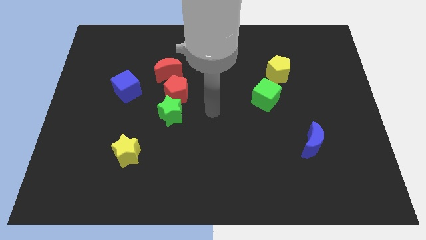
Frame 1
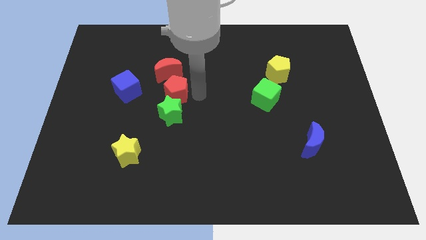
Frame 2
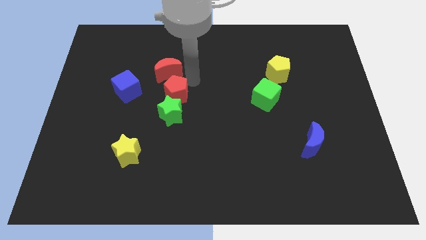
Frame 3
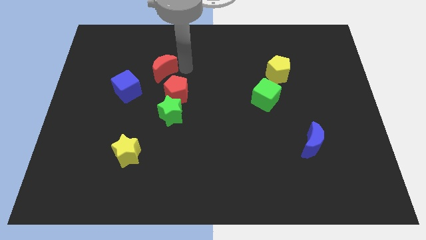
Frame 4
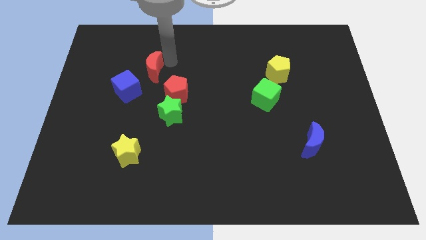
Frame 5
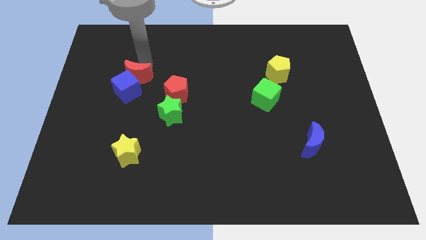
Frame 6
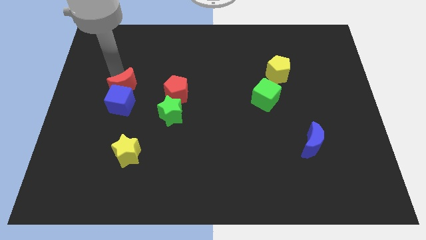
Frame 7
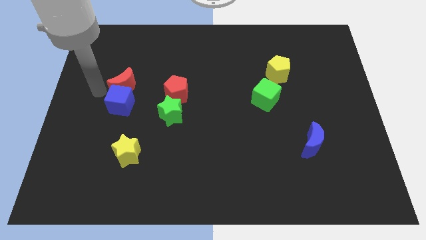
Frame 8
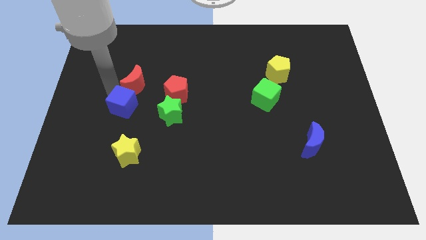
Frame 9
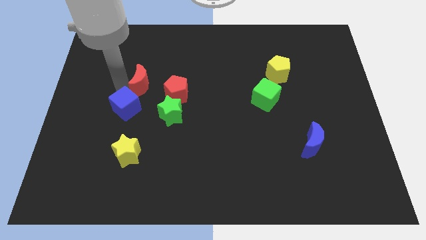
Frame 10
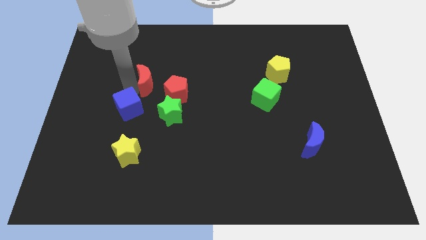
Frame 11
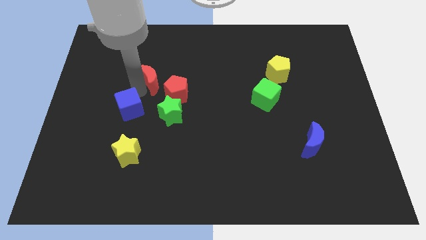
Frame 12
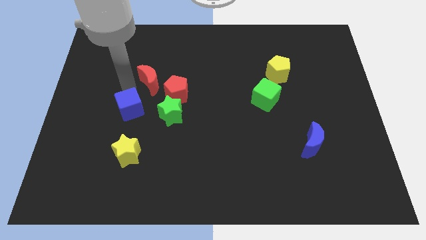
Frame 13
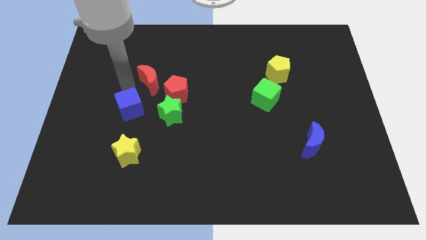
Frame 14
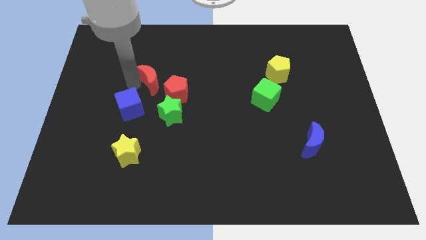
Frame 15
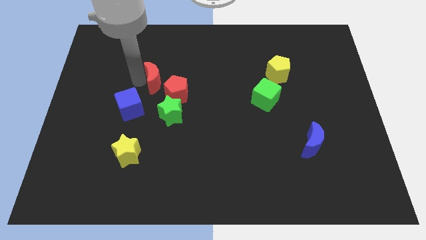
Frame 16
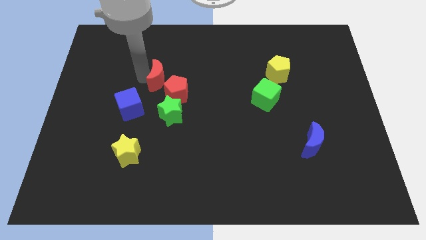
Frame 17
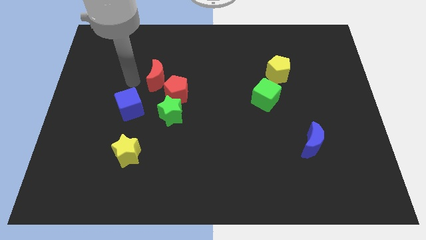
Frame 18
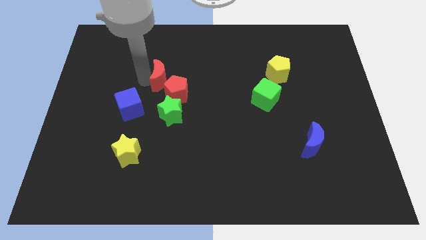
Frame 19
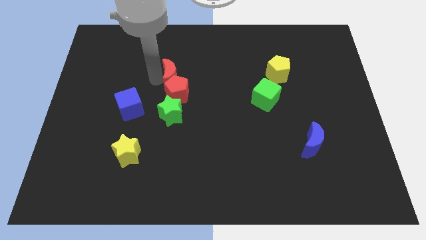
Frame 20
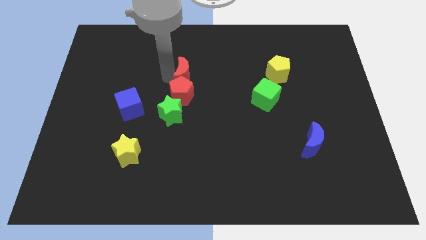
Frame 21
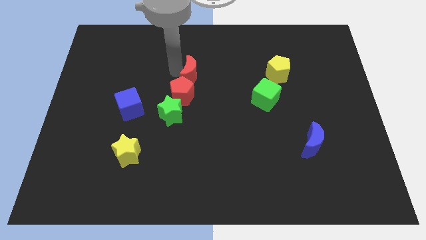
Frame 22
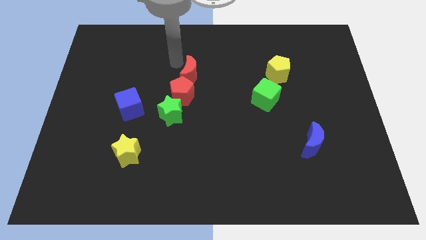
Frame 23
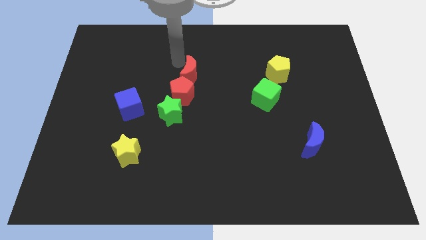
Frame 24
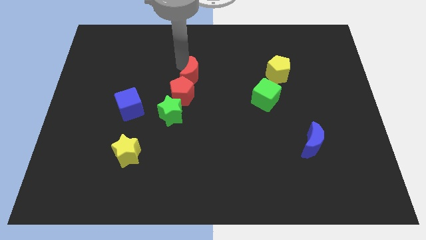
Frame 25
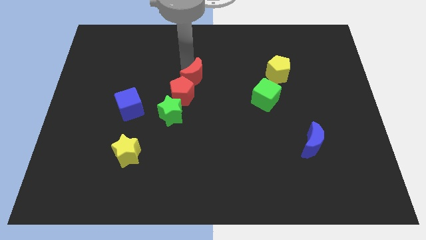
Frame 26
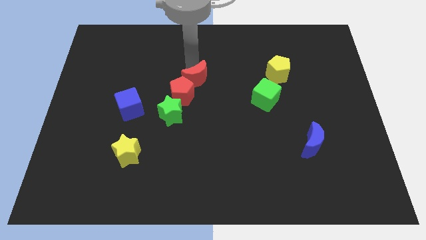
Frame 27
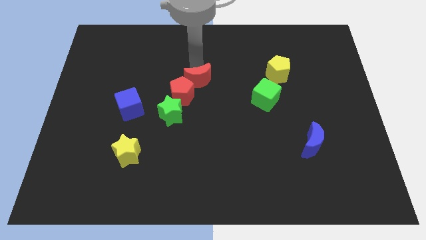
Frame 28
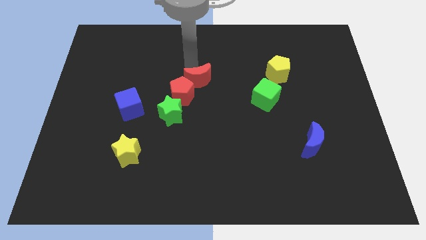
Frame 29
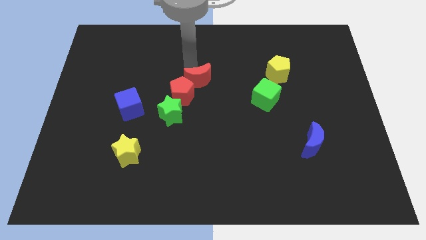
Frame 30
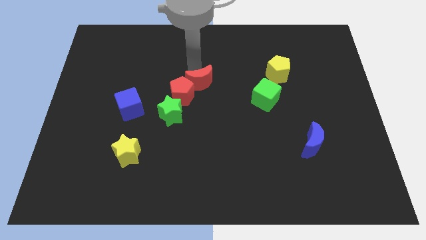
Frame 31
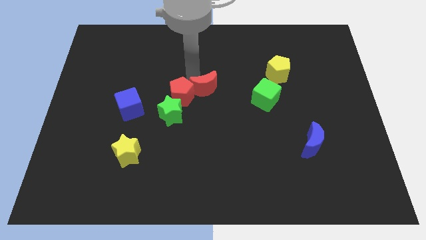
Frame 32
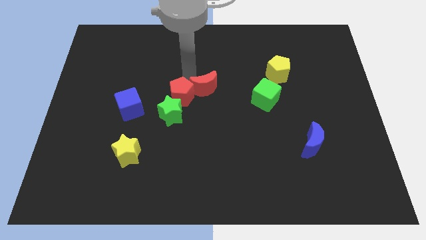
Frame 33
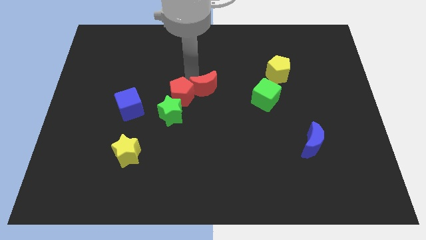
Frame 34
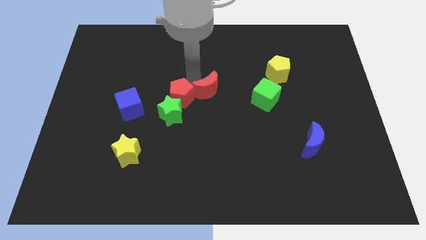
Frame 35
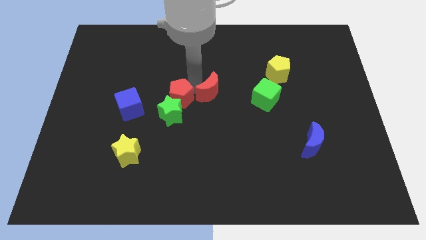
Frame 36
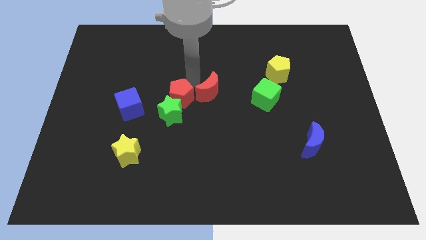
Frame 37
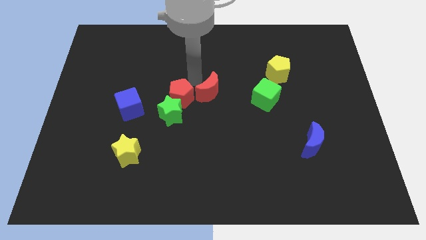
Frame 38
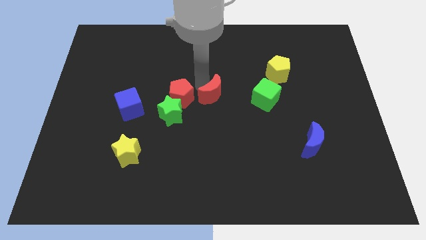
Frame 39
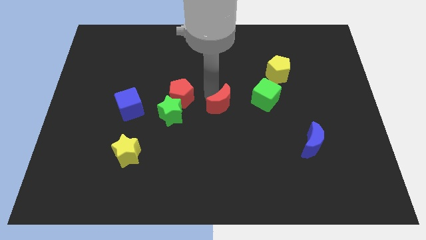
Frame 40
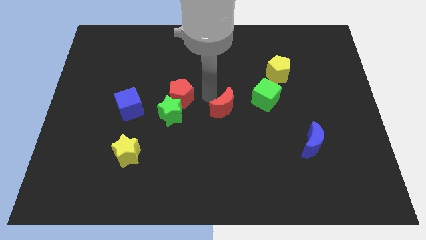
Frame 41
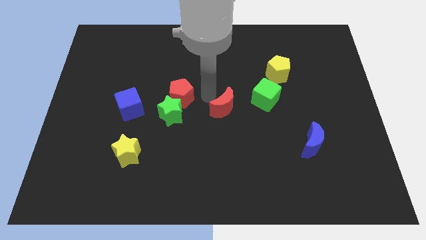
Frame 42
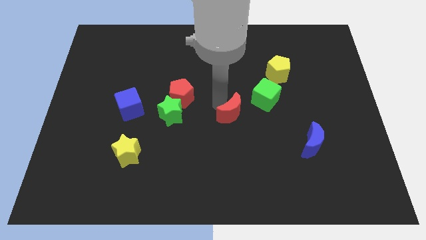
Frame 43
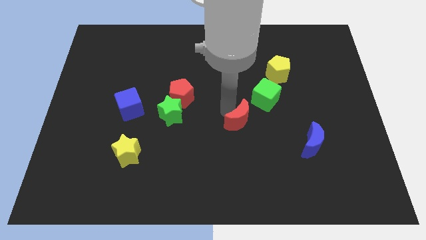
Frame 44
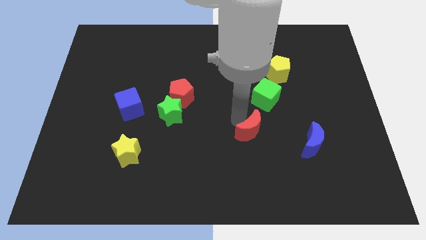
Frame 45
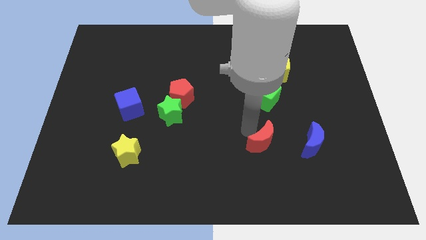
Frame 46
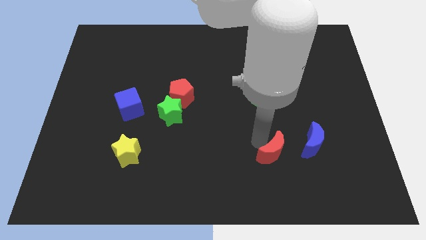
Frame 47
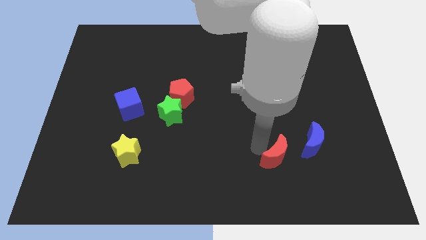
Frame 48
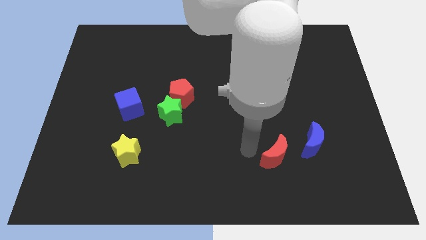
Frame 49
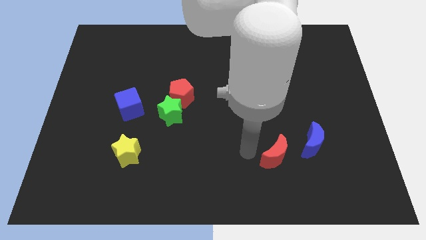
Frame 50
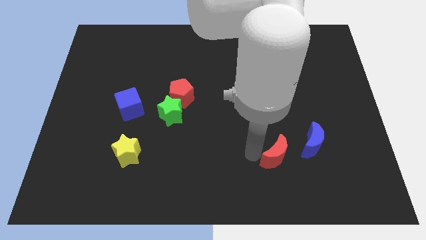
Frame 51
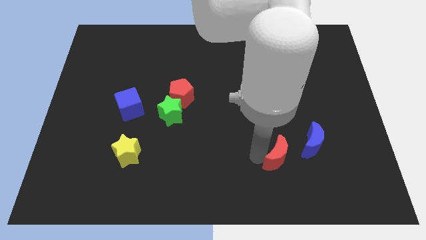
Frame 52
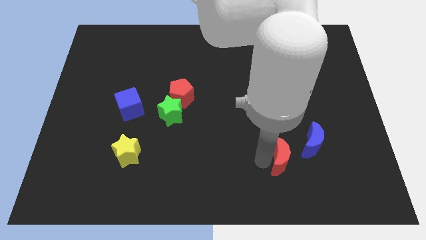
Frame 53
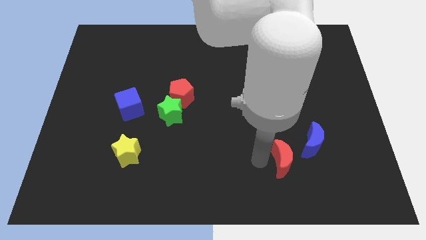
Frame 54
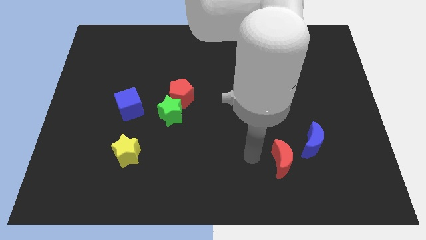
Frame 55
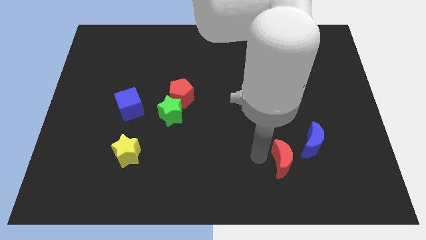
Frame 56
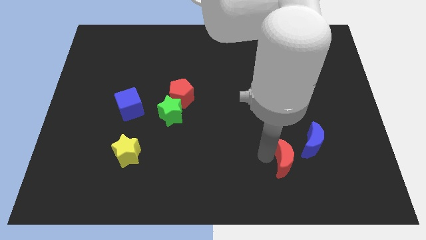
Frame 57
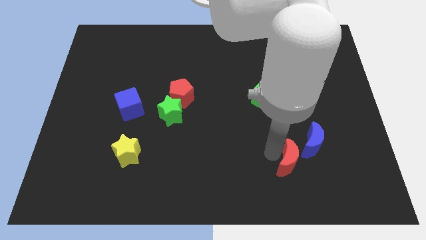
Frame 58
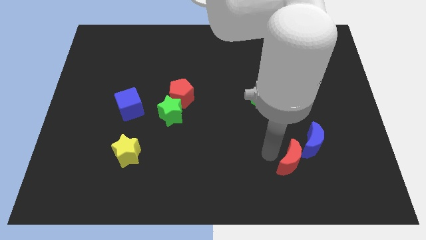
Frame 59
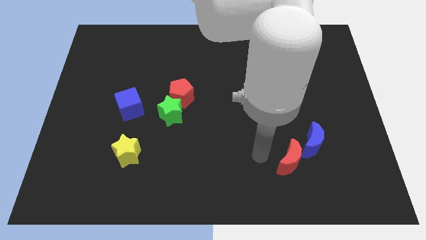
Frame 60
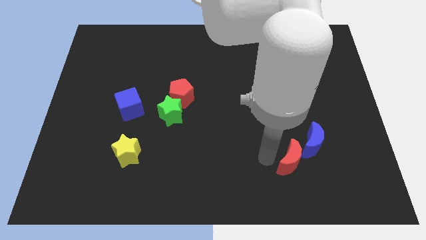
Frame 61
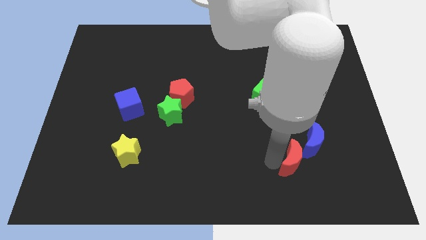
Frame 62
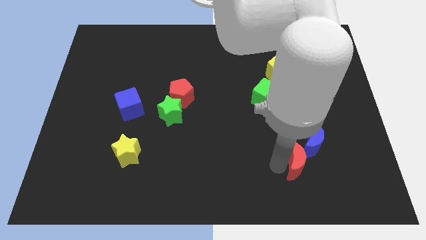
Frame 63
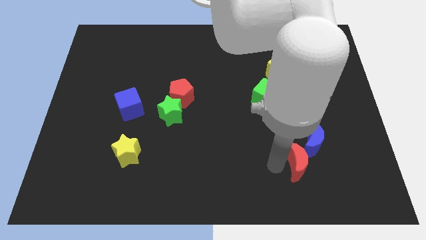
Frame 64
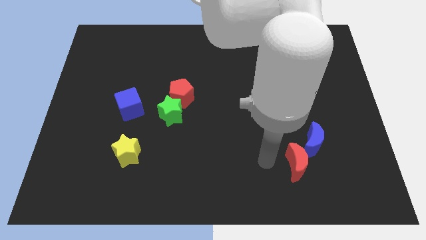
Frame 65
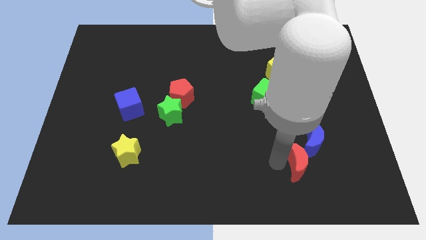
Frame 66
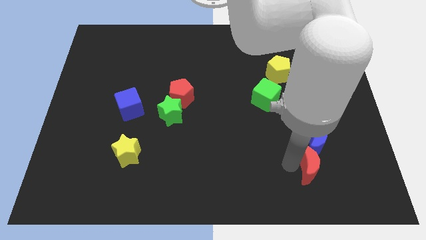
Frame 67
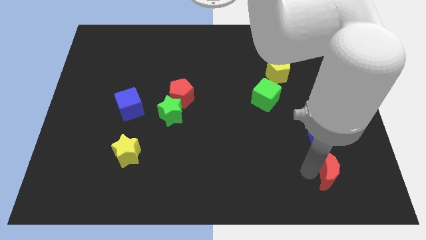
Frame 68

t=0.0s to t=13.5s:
move the red moon to the bottom right of the blue moon

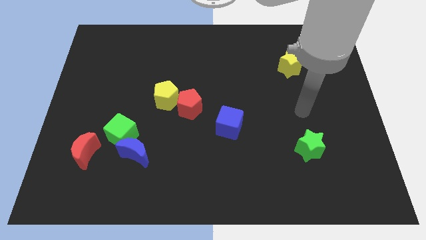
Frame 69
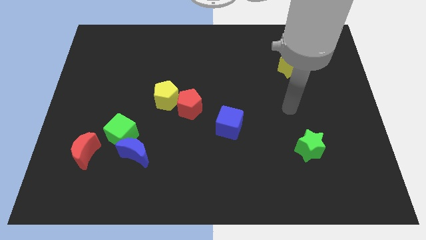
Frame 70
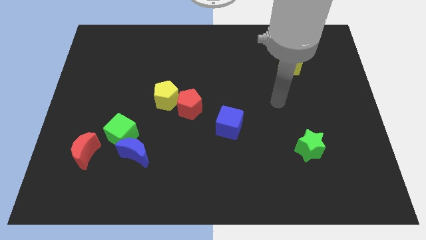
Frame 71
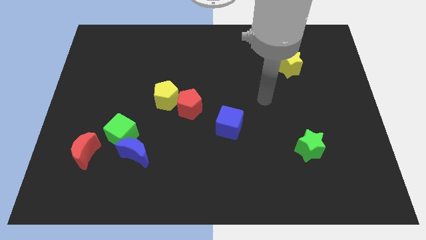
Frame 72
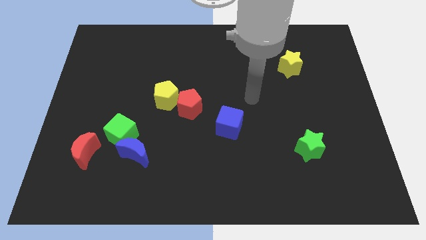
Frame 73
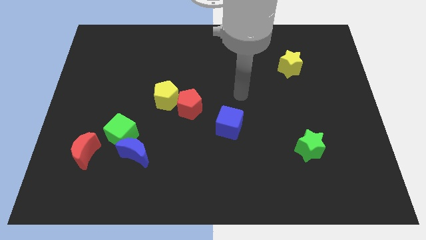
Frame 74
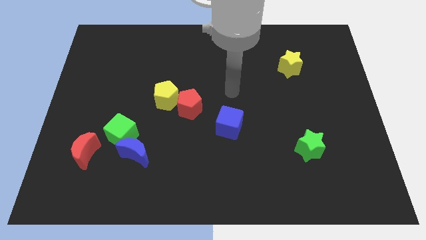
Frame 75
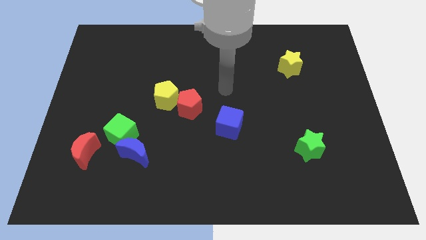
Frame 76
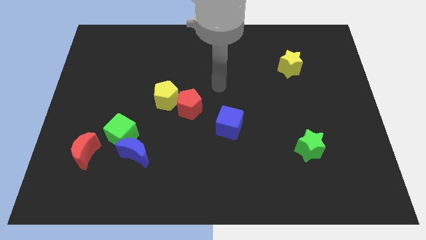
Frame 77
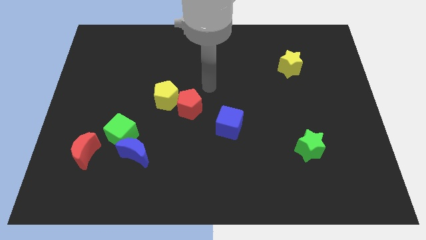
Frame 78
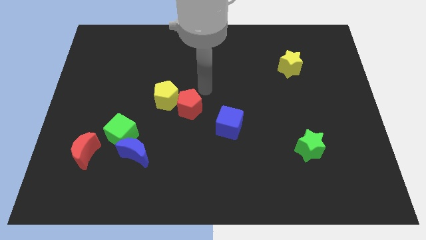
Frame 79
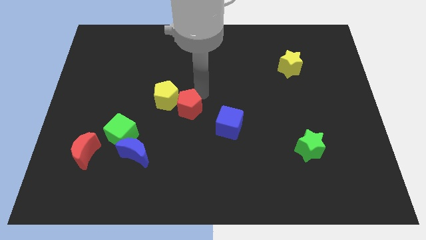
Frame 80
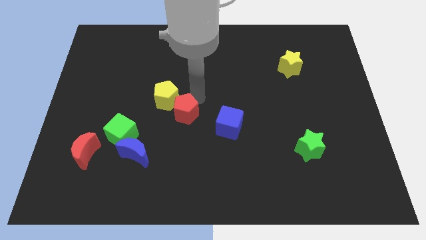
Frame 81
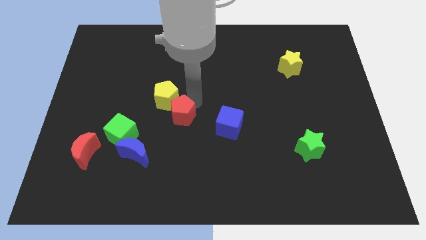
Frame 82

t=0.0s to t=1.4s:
push the red pentagon to the bottom side of the yellow pentagon
